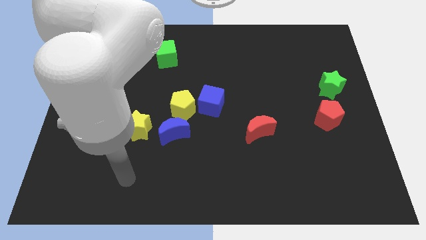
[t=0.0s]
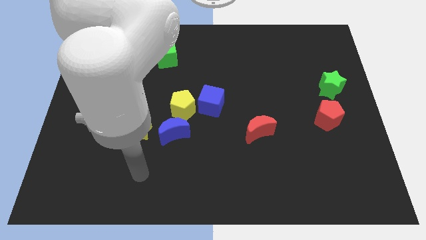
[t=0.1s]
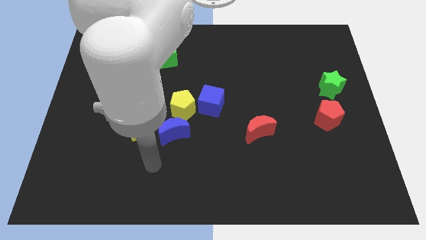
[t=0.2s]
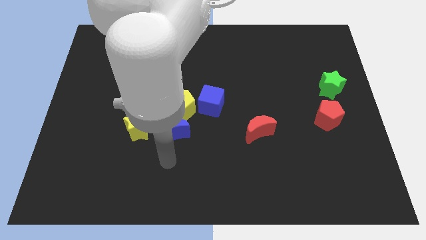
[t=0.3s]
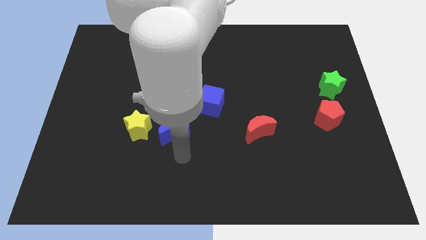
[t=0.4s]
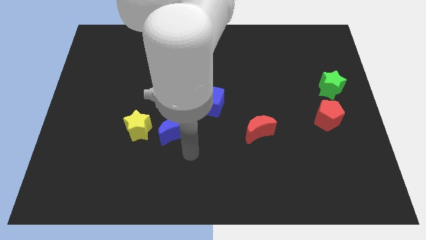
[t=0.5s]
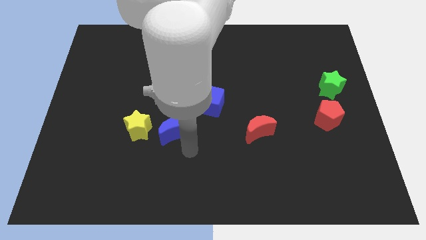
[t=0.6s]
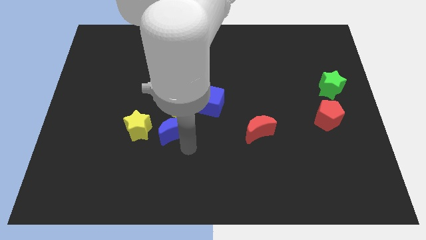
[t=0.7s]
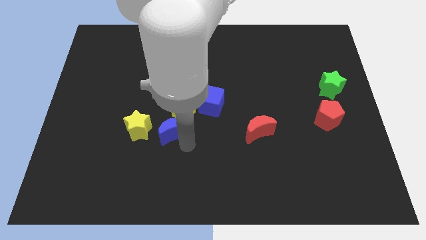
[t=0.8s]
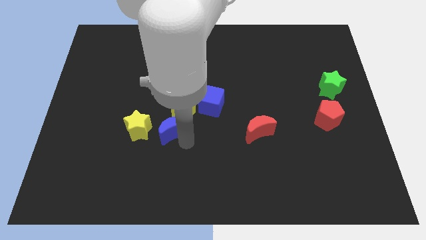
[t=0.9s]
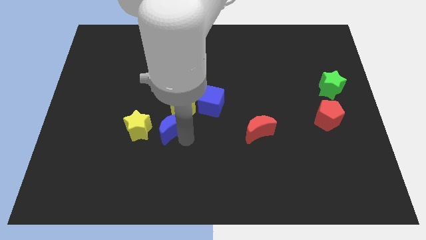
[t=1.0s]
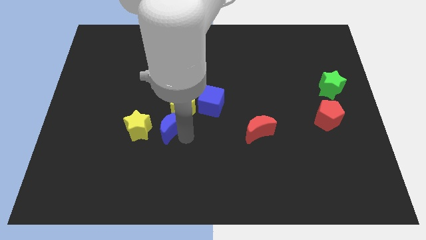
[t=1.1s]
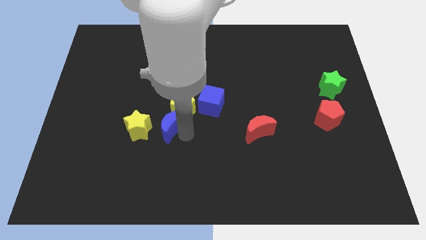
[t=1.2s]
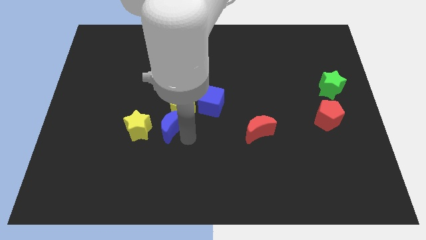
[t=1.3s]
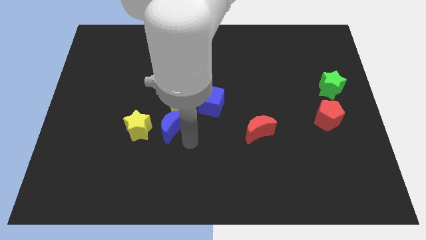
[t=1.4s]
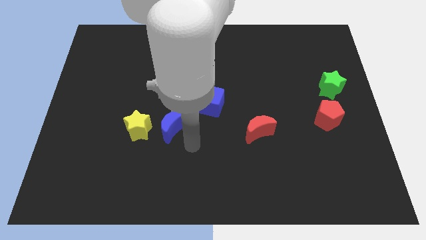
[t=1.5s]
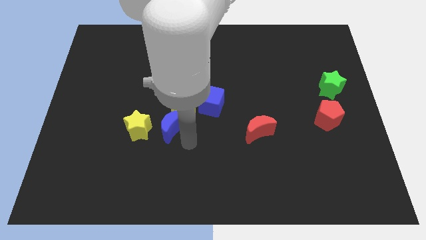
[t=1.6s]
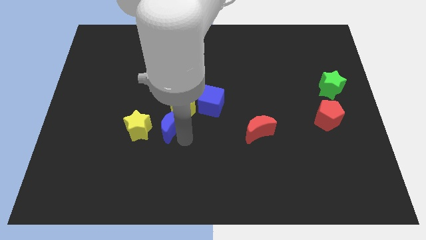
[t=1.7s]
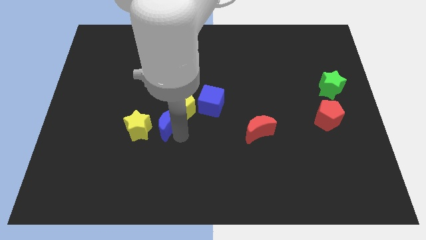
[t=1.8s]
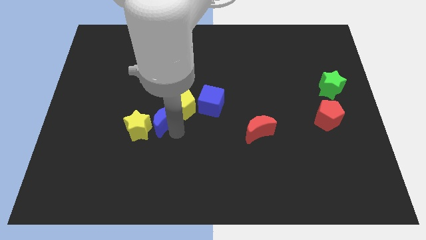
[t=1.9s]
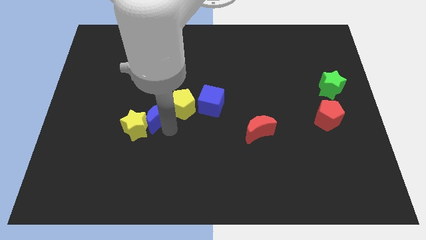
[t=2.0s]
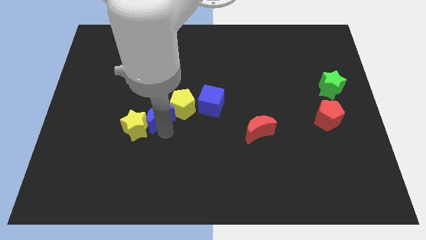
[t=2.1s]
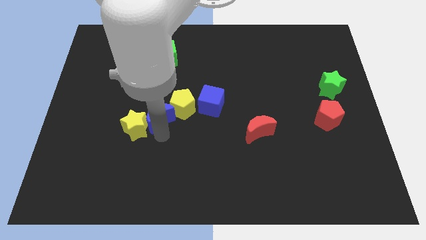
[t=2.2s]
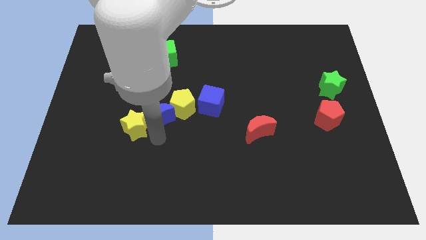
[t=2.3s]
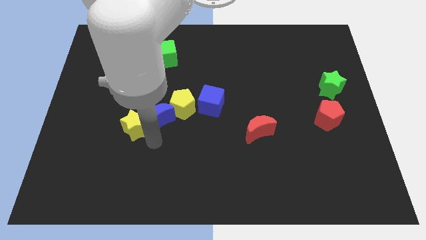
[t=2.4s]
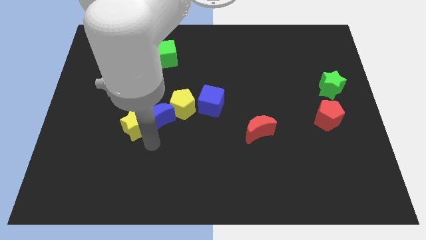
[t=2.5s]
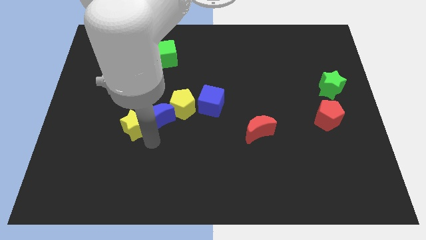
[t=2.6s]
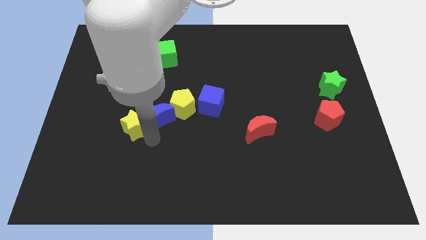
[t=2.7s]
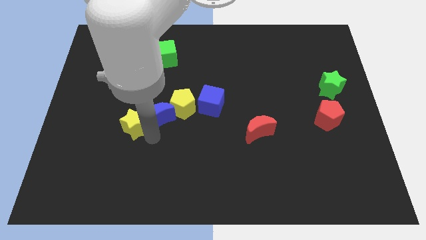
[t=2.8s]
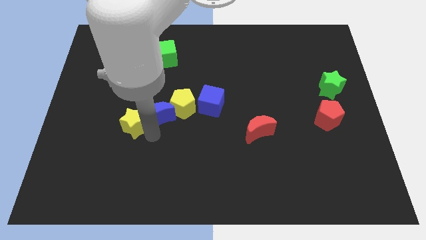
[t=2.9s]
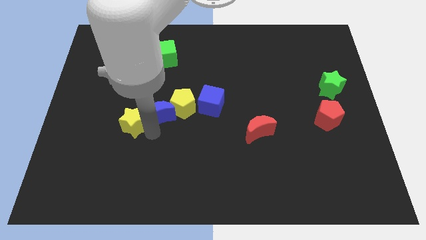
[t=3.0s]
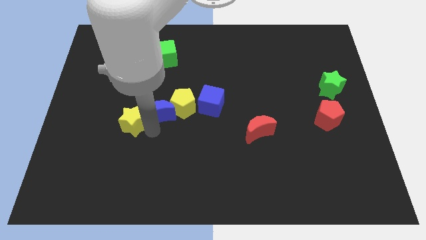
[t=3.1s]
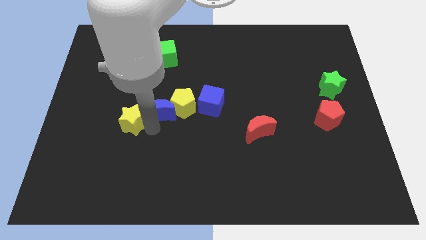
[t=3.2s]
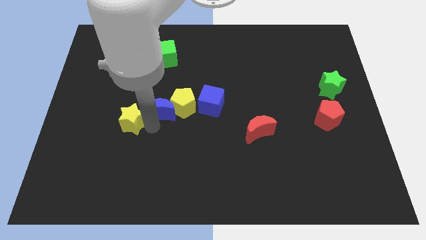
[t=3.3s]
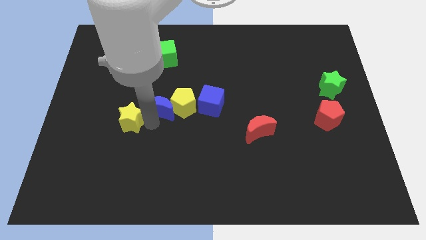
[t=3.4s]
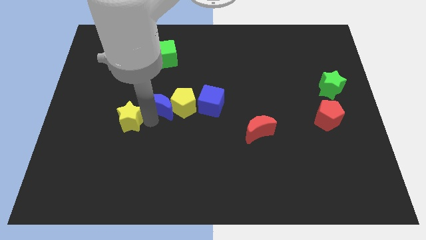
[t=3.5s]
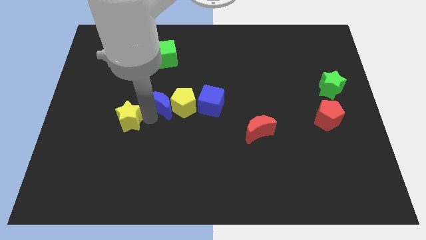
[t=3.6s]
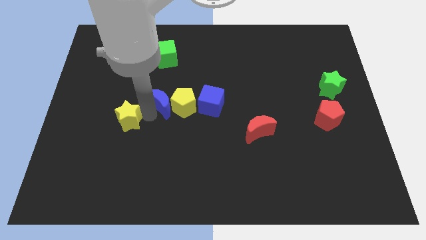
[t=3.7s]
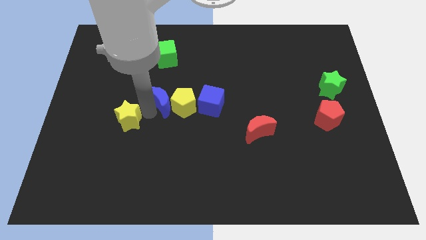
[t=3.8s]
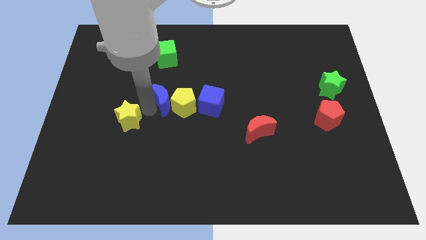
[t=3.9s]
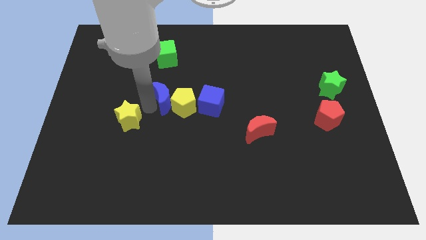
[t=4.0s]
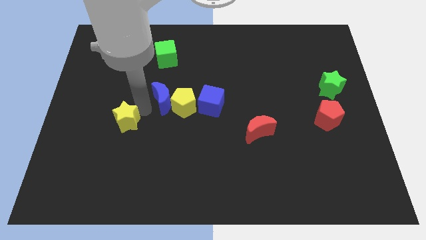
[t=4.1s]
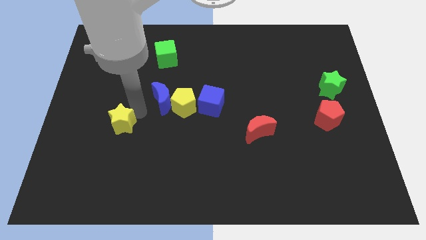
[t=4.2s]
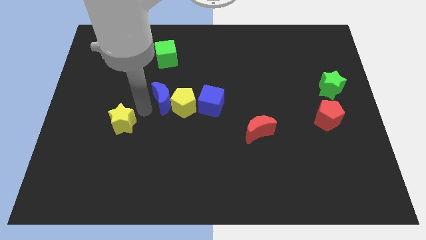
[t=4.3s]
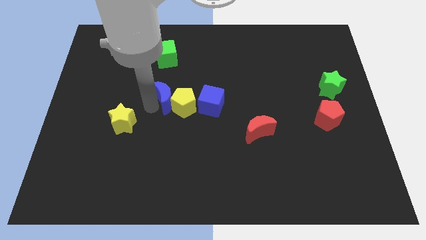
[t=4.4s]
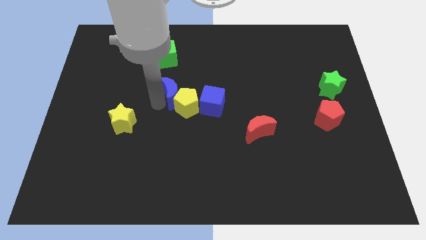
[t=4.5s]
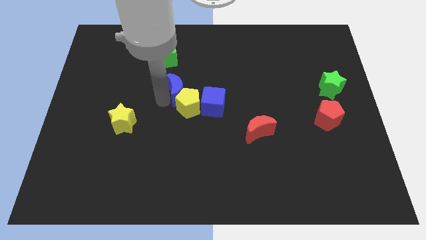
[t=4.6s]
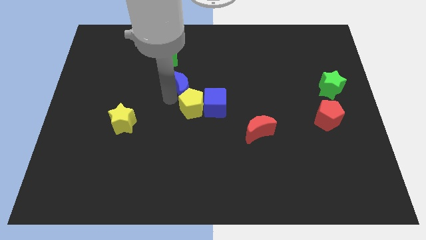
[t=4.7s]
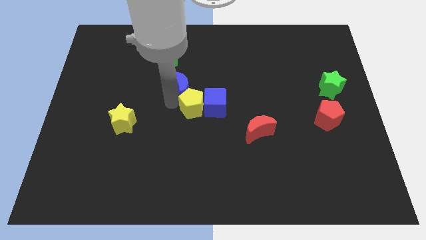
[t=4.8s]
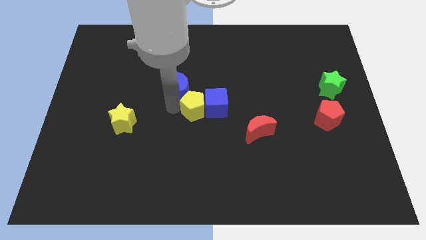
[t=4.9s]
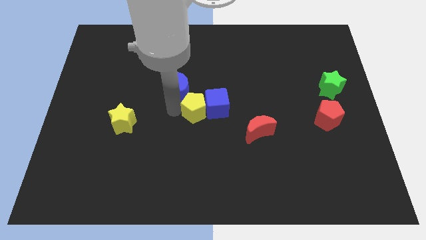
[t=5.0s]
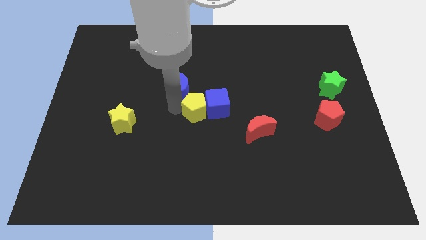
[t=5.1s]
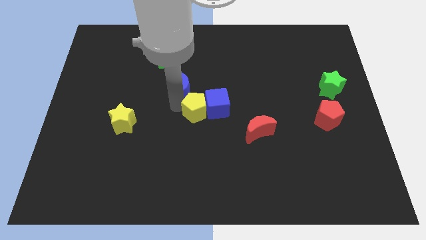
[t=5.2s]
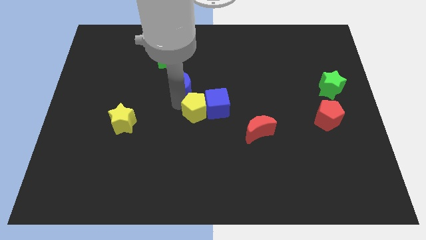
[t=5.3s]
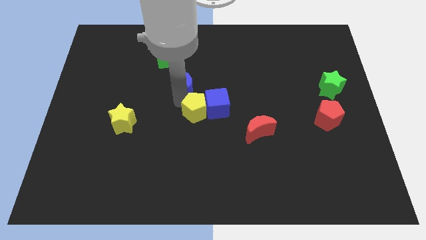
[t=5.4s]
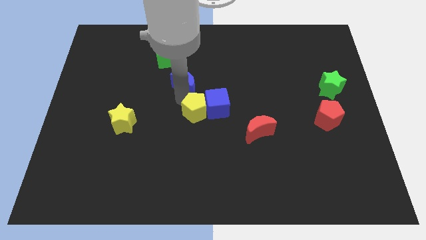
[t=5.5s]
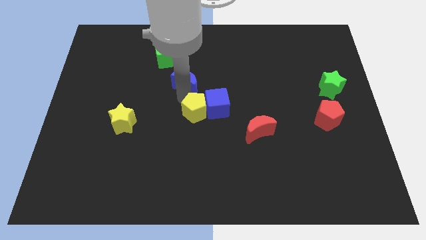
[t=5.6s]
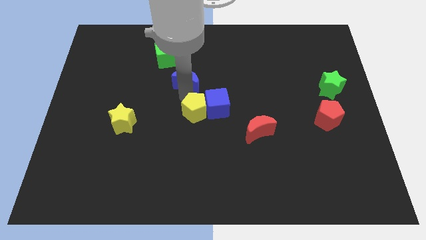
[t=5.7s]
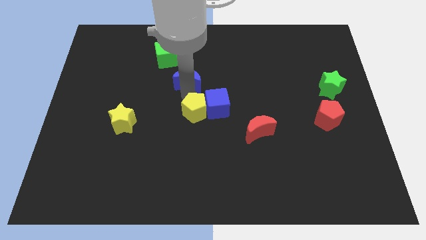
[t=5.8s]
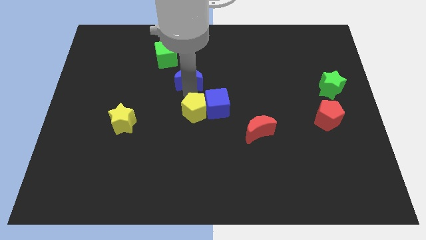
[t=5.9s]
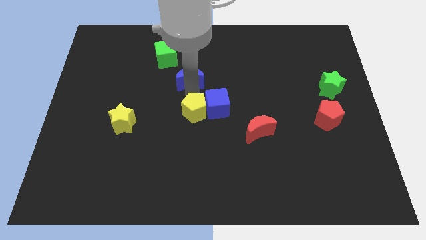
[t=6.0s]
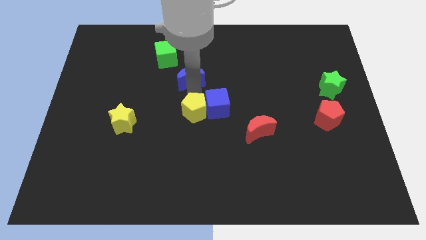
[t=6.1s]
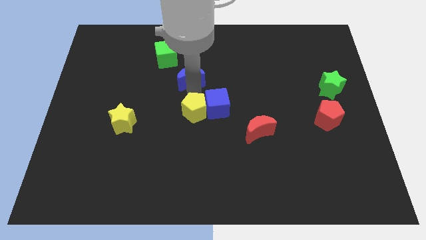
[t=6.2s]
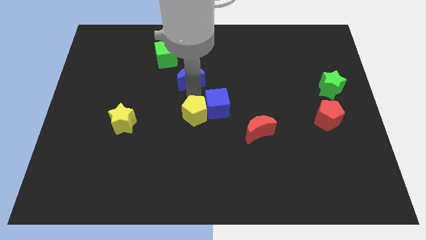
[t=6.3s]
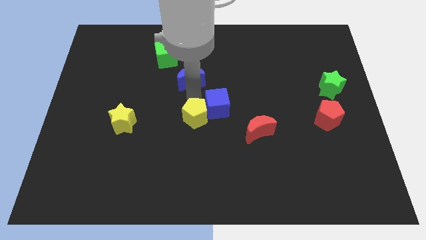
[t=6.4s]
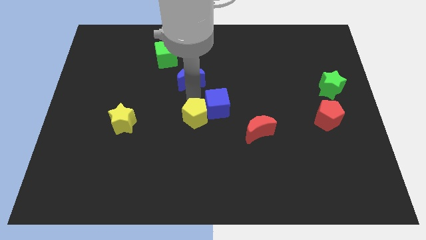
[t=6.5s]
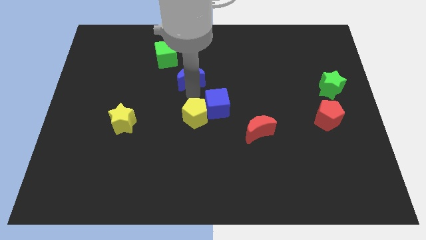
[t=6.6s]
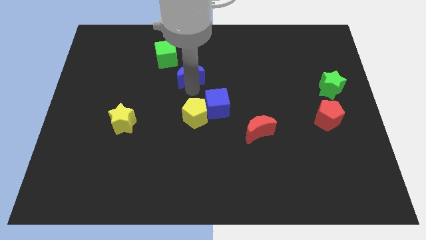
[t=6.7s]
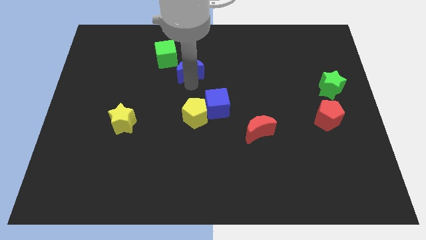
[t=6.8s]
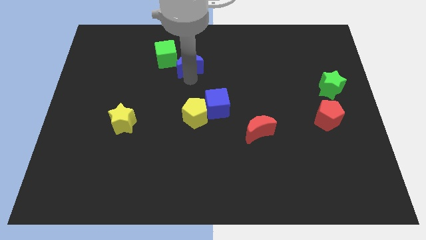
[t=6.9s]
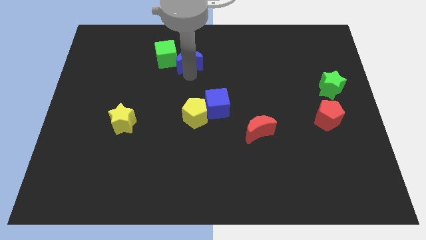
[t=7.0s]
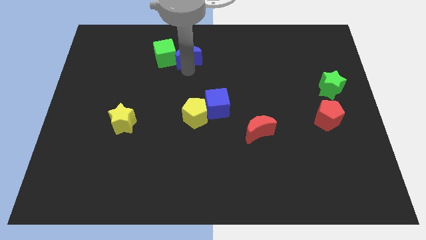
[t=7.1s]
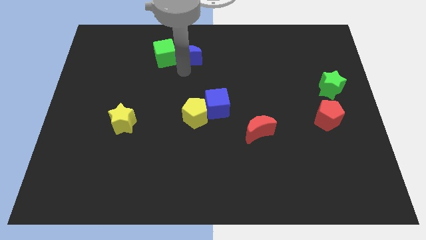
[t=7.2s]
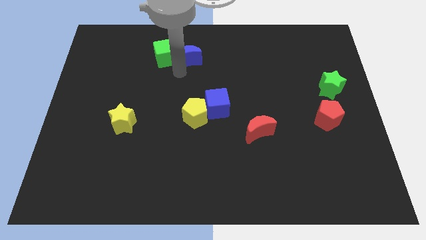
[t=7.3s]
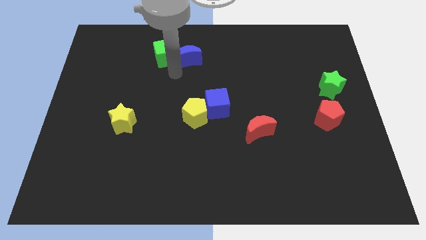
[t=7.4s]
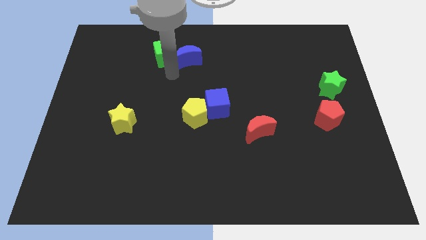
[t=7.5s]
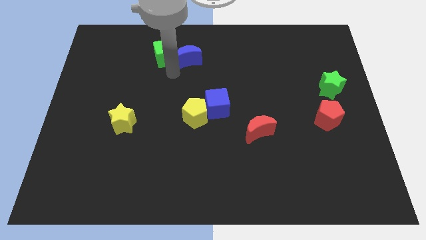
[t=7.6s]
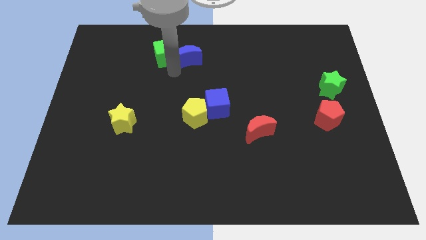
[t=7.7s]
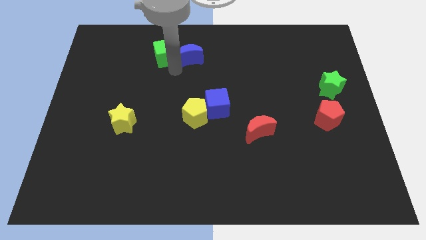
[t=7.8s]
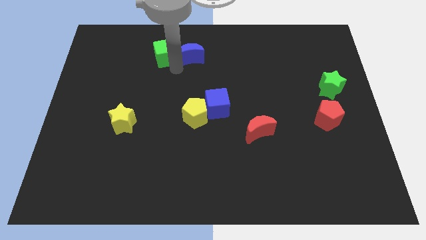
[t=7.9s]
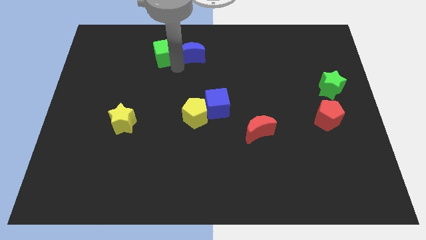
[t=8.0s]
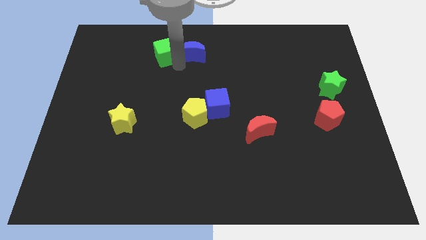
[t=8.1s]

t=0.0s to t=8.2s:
move the blue moon to the top
